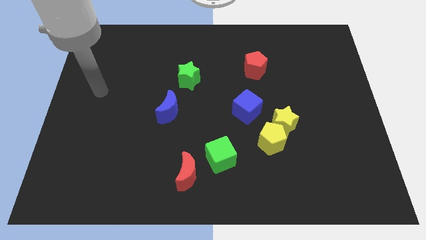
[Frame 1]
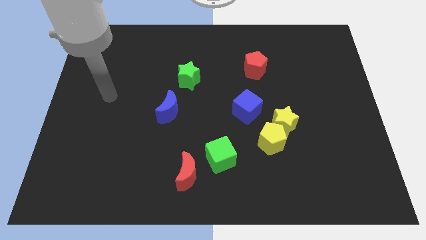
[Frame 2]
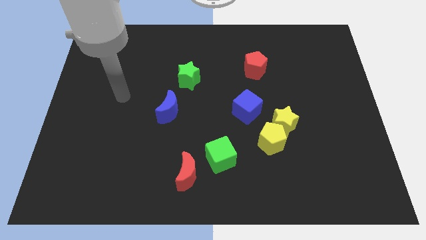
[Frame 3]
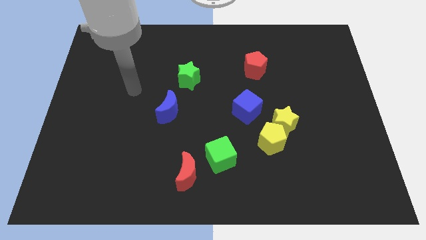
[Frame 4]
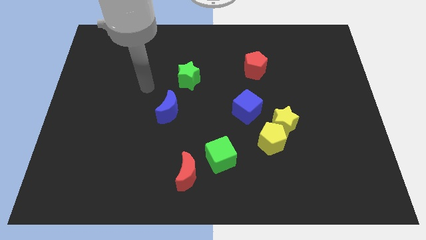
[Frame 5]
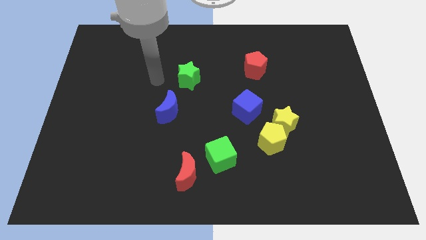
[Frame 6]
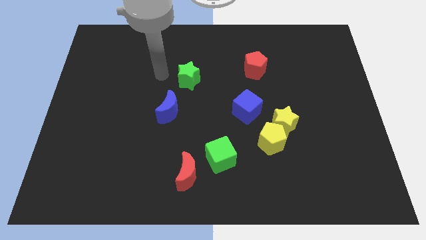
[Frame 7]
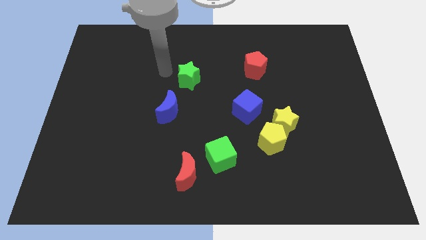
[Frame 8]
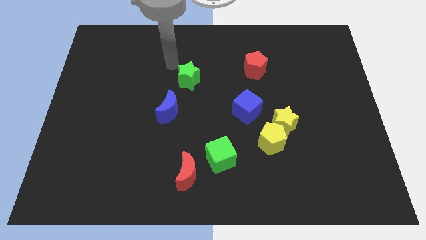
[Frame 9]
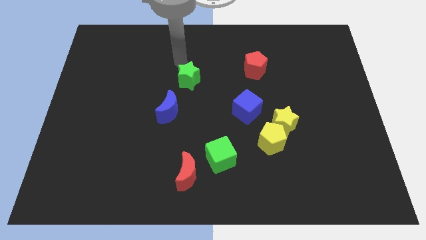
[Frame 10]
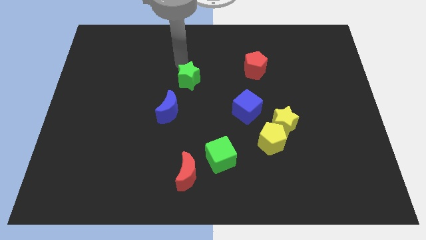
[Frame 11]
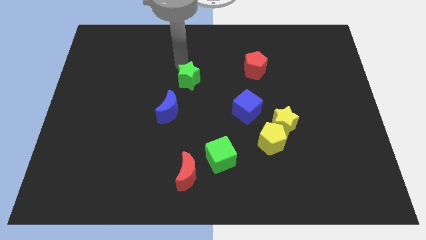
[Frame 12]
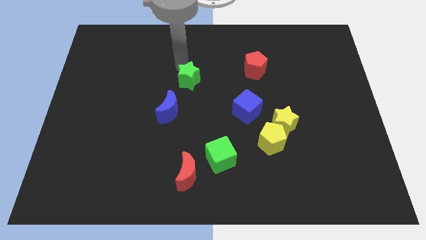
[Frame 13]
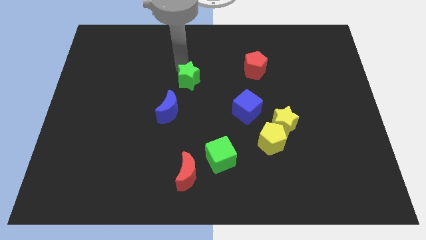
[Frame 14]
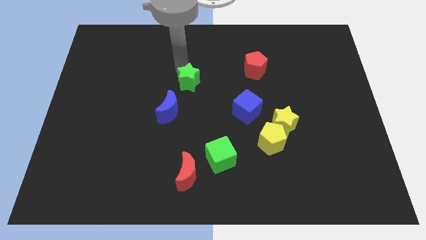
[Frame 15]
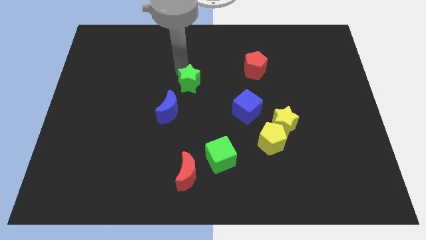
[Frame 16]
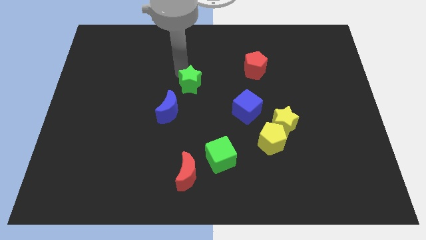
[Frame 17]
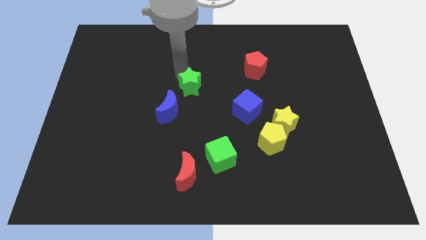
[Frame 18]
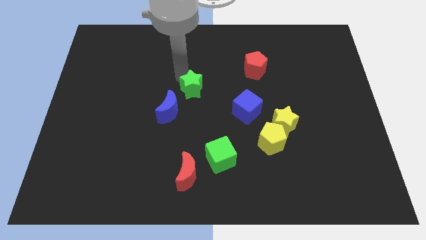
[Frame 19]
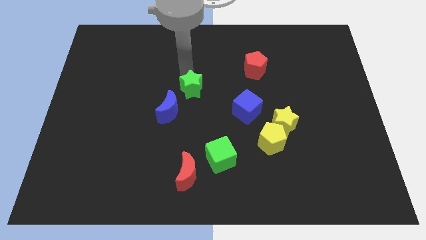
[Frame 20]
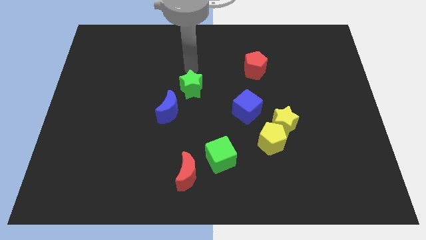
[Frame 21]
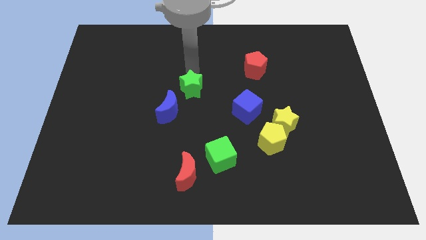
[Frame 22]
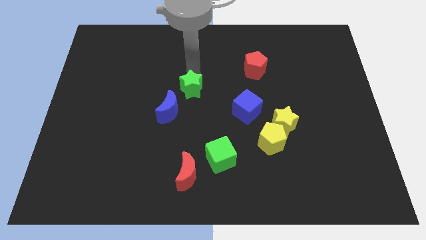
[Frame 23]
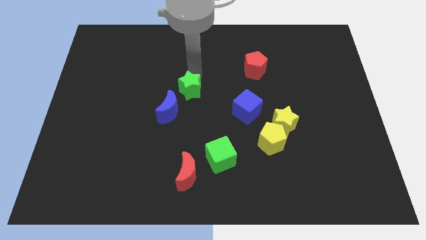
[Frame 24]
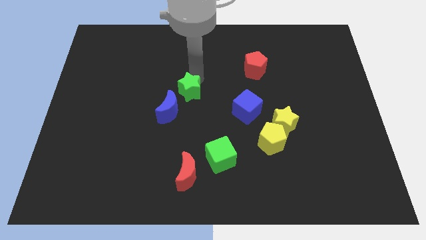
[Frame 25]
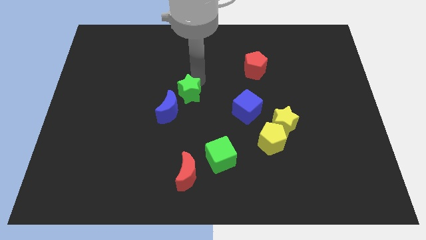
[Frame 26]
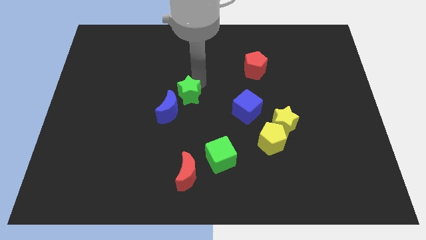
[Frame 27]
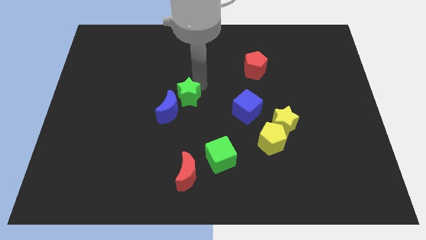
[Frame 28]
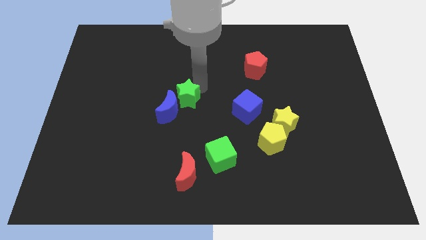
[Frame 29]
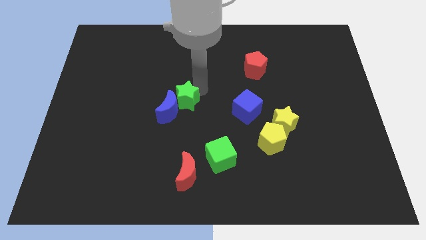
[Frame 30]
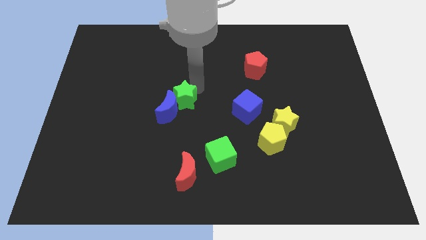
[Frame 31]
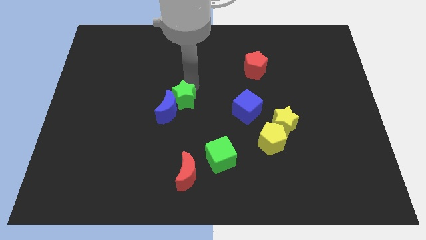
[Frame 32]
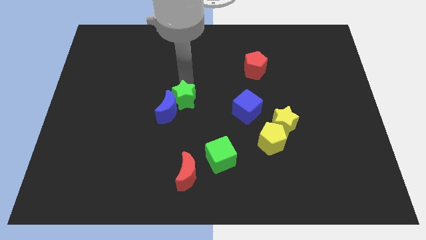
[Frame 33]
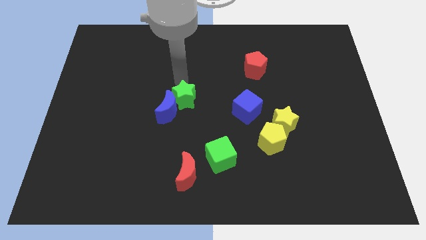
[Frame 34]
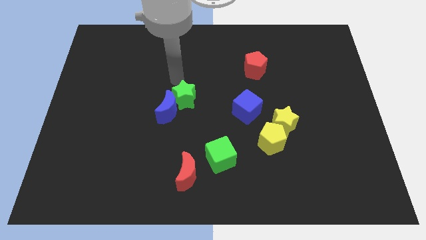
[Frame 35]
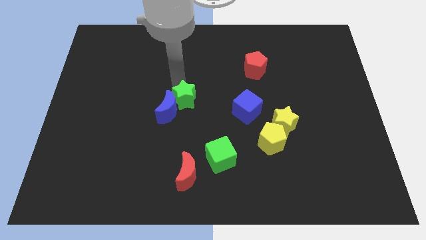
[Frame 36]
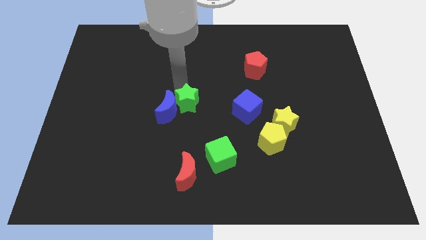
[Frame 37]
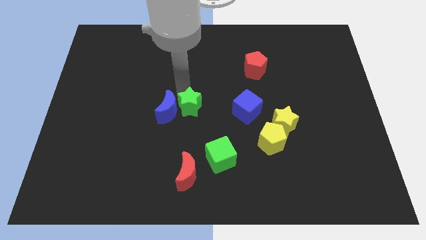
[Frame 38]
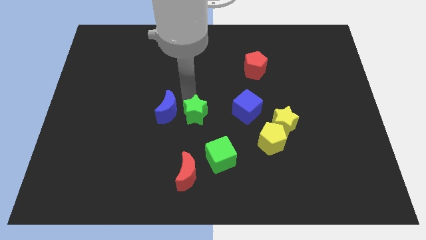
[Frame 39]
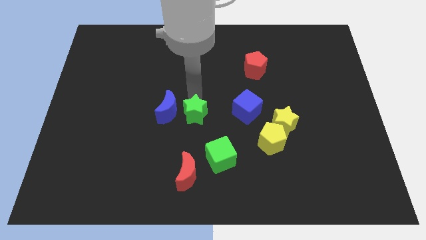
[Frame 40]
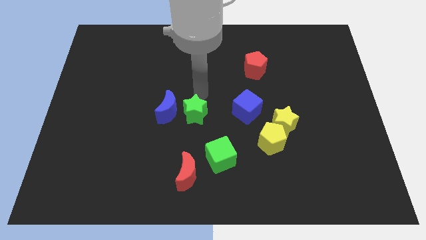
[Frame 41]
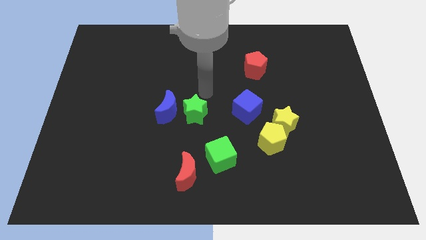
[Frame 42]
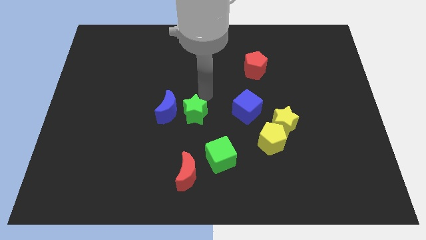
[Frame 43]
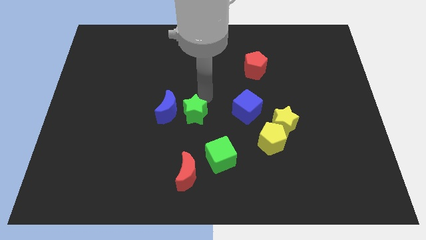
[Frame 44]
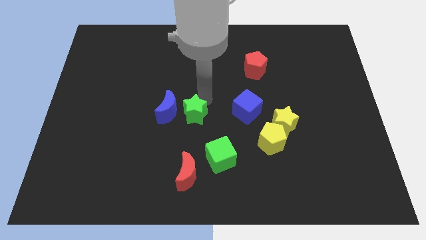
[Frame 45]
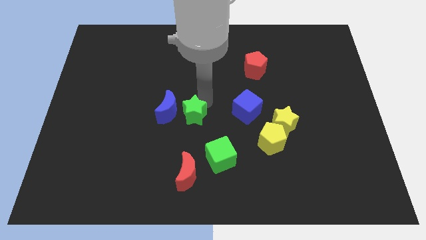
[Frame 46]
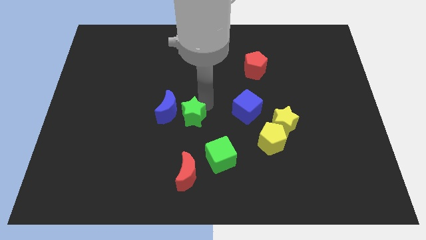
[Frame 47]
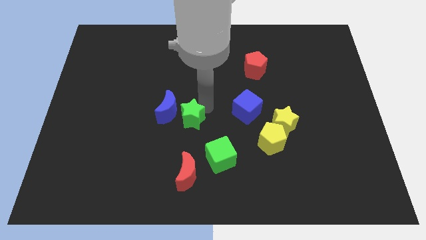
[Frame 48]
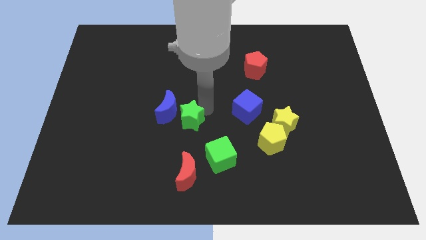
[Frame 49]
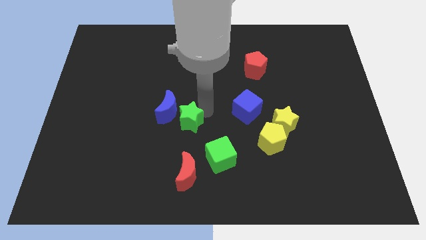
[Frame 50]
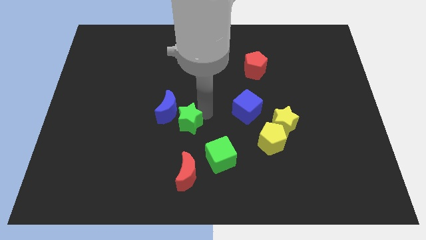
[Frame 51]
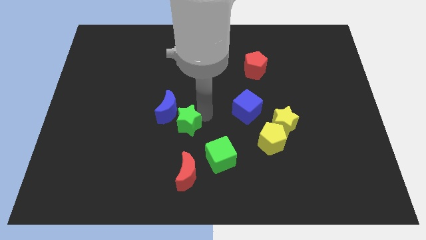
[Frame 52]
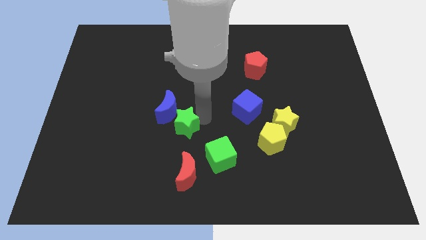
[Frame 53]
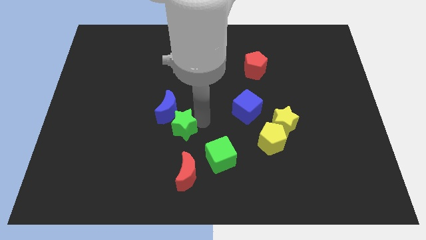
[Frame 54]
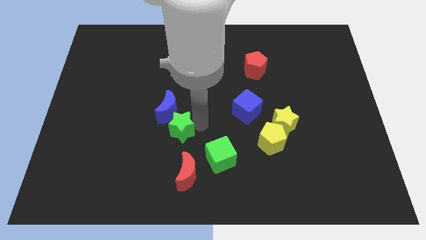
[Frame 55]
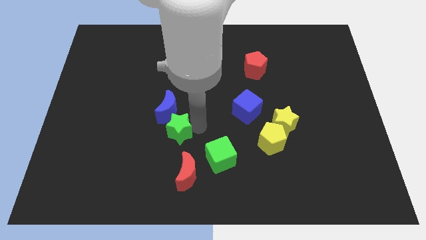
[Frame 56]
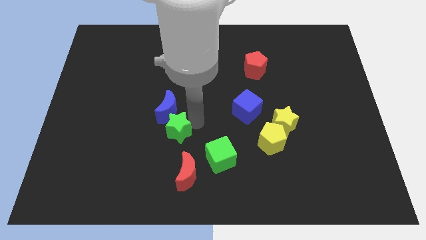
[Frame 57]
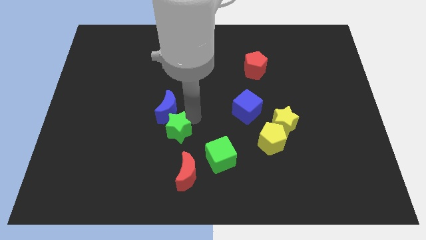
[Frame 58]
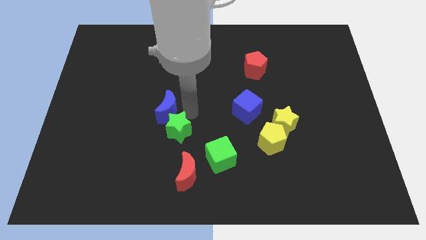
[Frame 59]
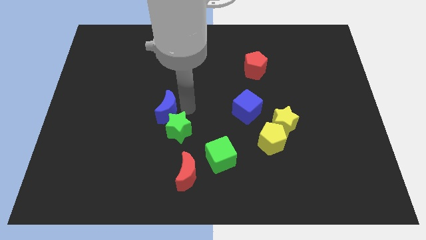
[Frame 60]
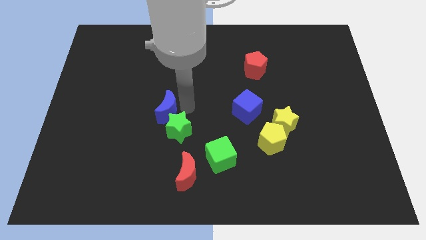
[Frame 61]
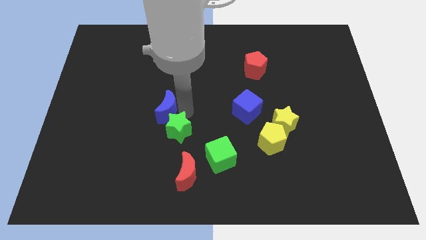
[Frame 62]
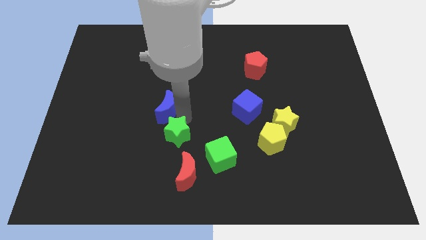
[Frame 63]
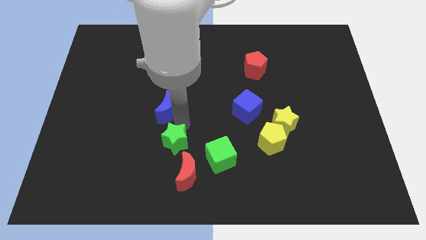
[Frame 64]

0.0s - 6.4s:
move the green star to the left side of the green cube
